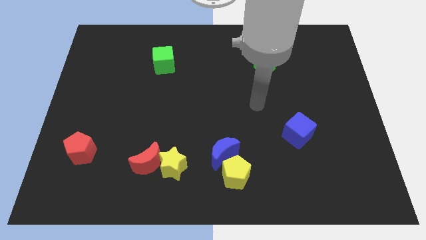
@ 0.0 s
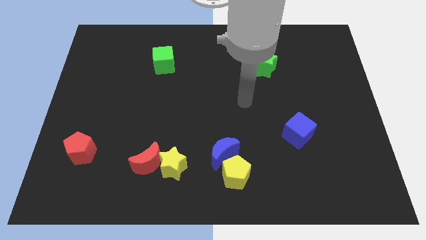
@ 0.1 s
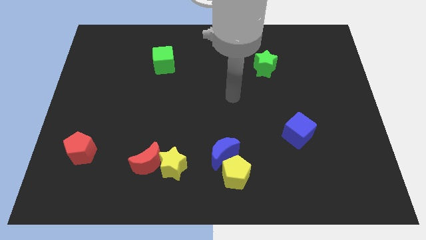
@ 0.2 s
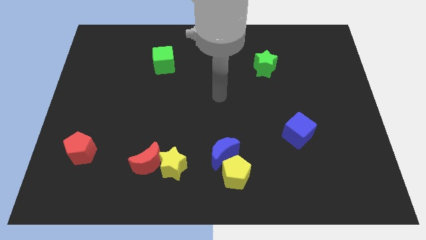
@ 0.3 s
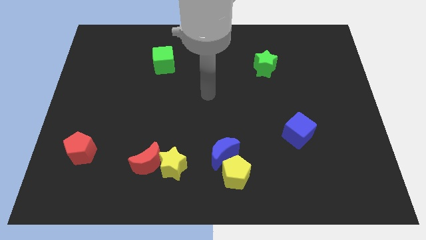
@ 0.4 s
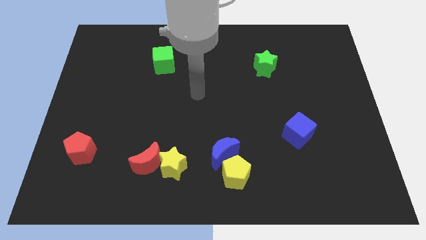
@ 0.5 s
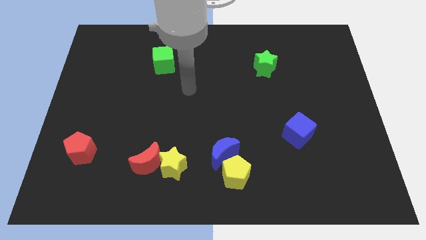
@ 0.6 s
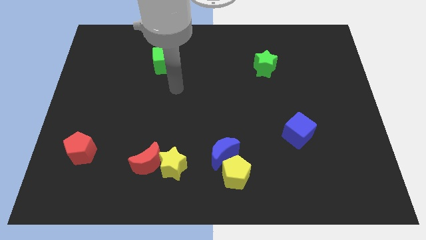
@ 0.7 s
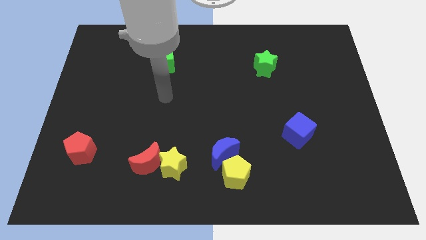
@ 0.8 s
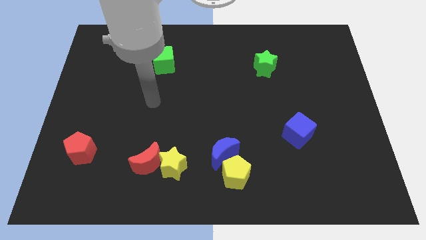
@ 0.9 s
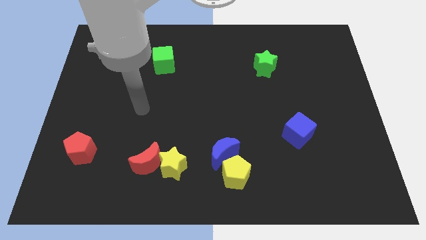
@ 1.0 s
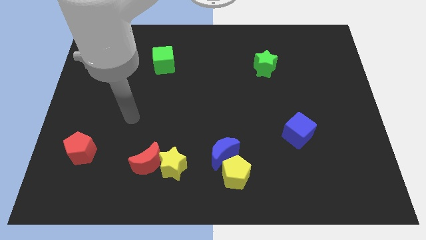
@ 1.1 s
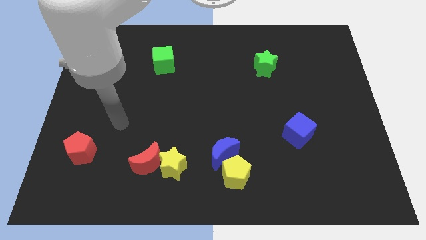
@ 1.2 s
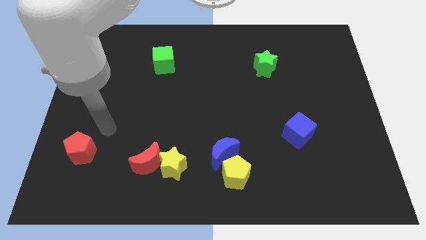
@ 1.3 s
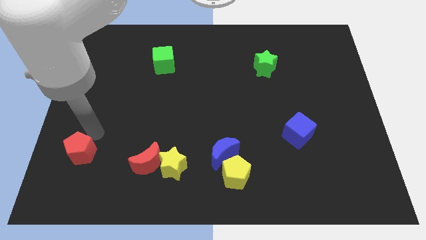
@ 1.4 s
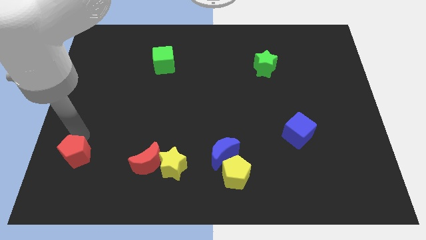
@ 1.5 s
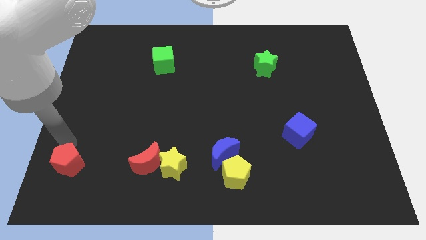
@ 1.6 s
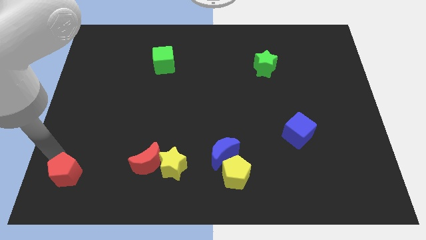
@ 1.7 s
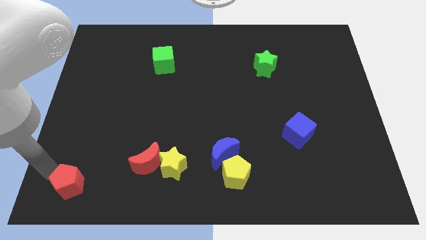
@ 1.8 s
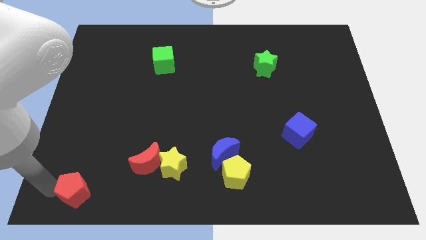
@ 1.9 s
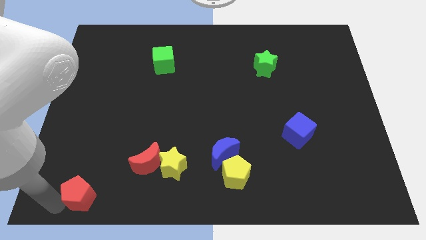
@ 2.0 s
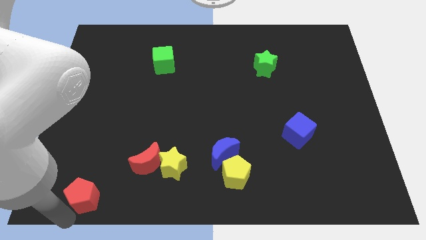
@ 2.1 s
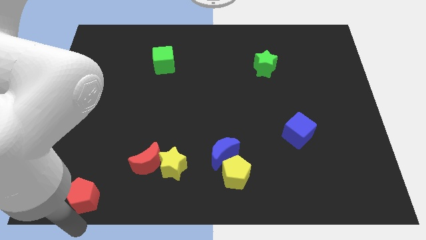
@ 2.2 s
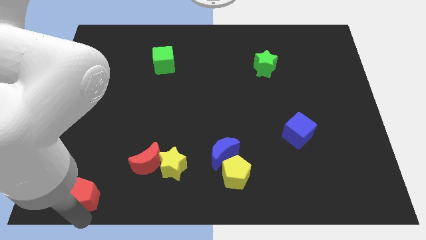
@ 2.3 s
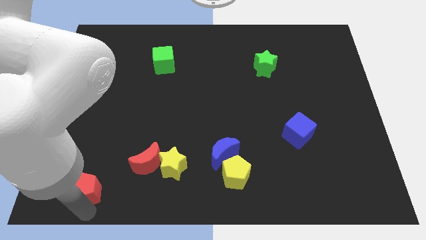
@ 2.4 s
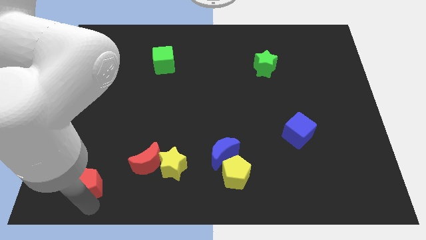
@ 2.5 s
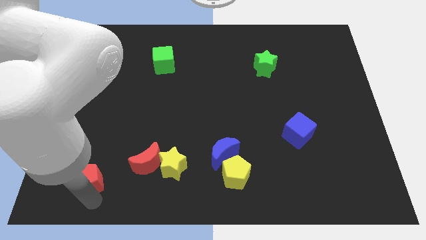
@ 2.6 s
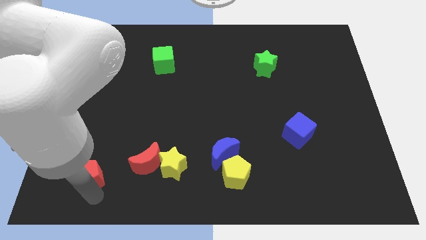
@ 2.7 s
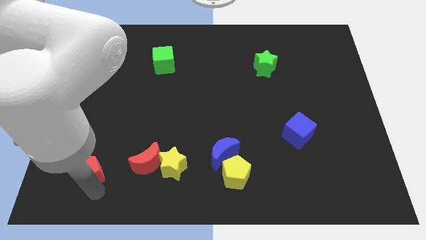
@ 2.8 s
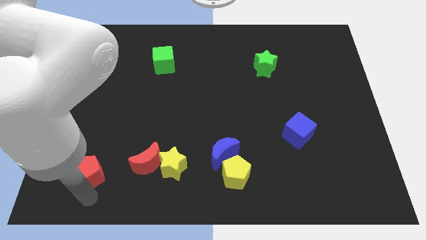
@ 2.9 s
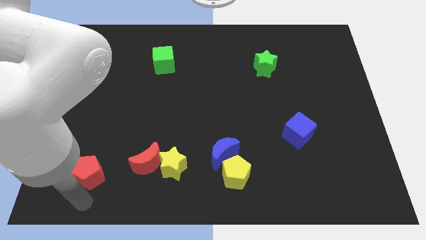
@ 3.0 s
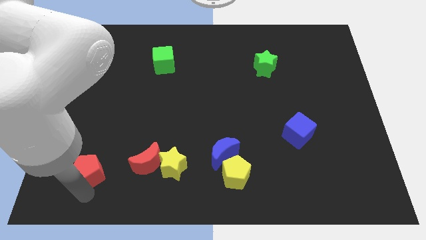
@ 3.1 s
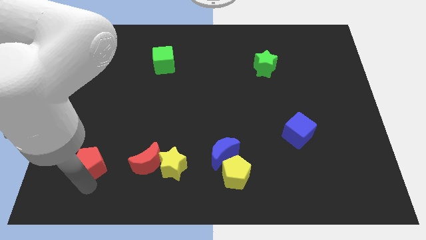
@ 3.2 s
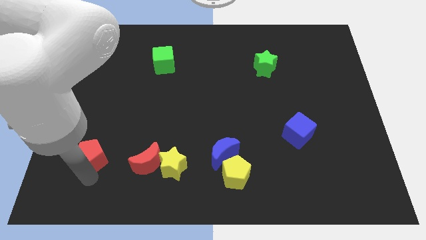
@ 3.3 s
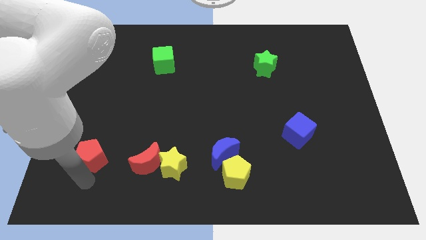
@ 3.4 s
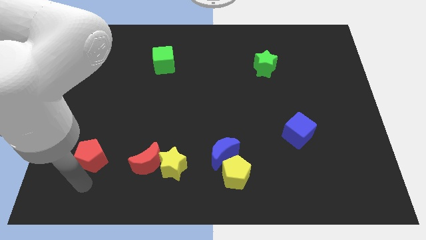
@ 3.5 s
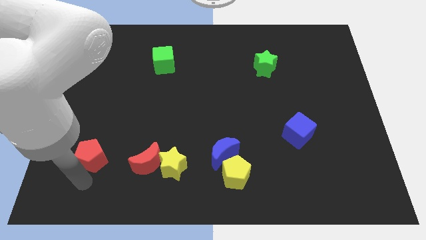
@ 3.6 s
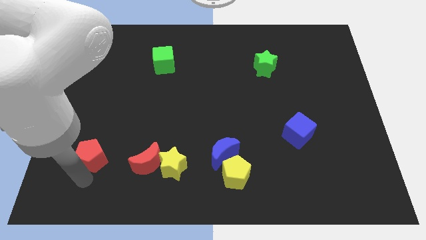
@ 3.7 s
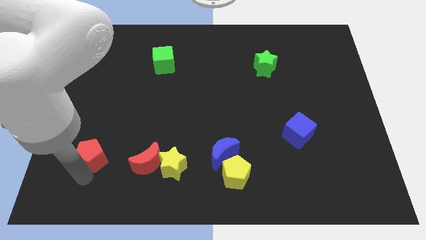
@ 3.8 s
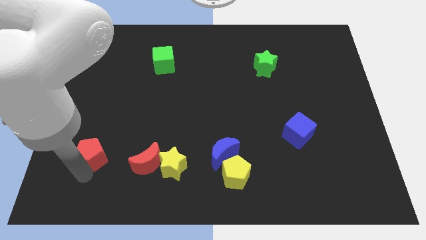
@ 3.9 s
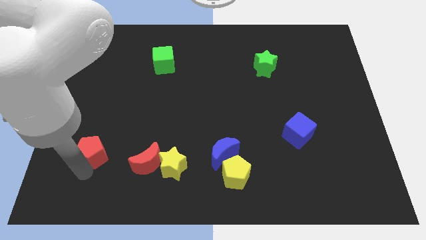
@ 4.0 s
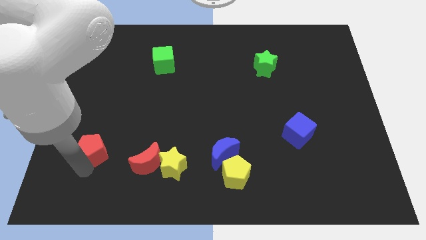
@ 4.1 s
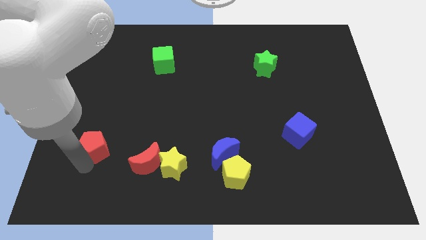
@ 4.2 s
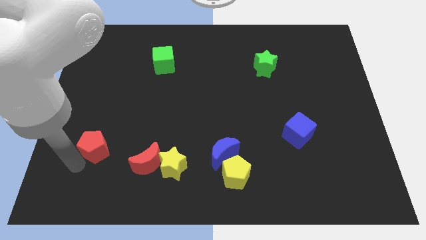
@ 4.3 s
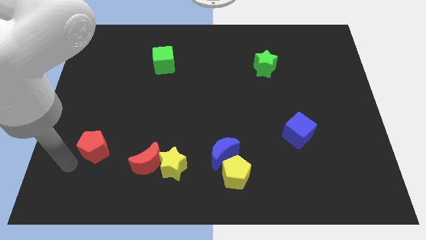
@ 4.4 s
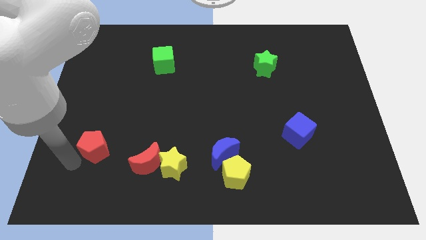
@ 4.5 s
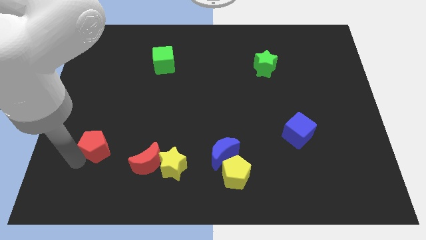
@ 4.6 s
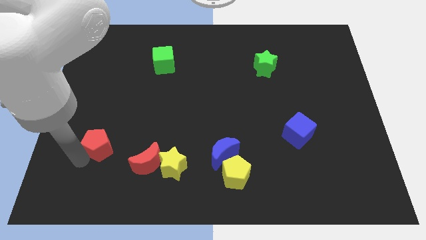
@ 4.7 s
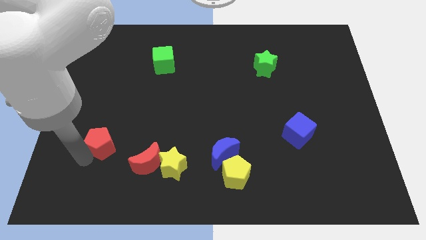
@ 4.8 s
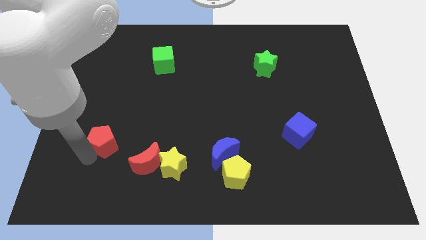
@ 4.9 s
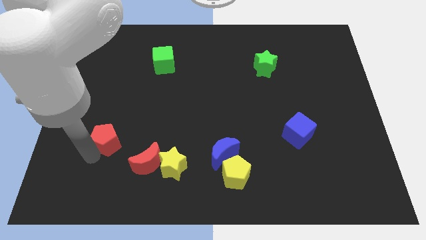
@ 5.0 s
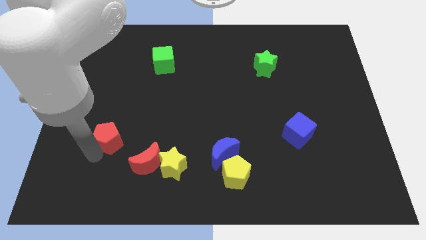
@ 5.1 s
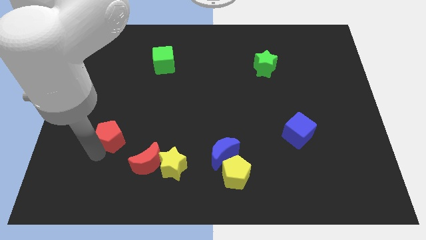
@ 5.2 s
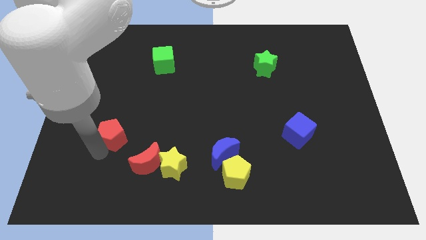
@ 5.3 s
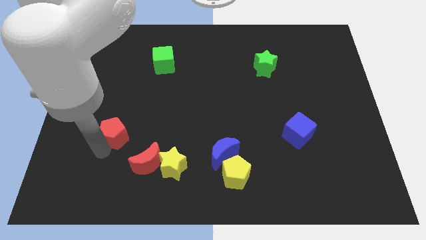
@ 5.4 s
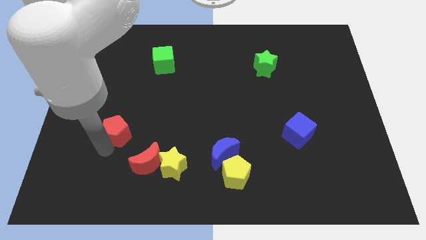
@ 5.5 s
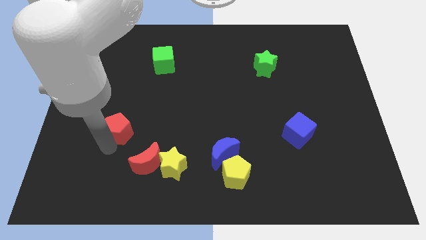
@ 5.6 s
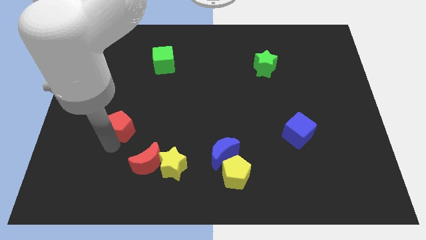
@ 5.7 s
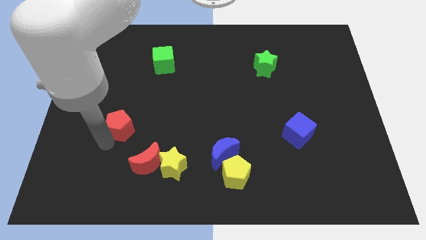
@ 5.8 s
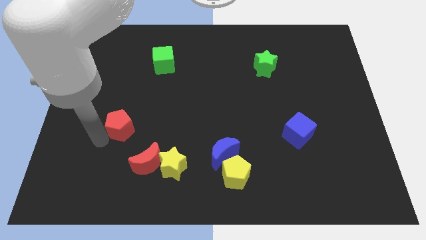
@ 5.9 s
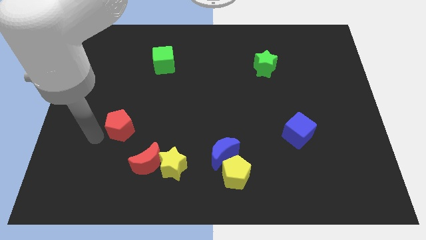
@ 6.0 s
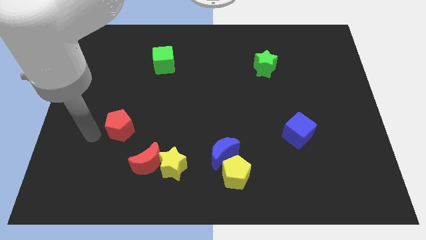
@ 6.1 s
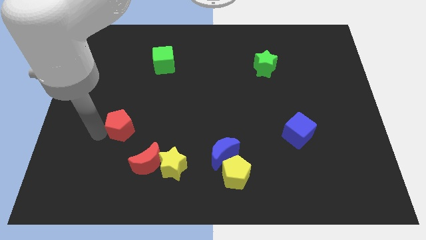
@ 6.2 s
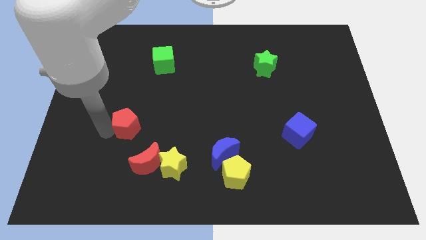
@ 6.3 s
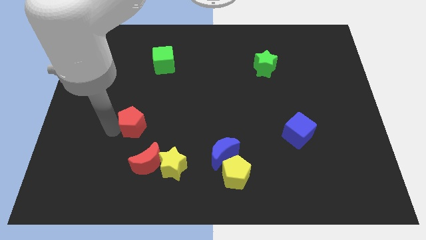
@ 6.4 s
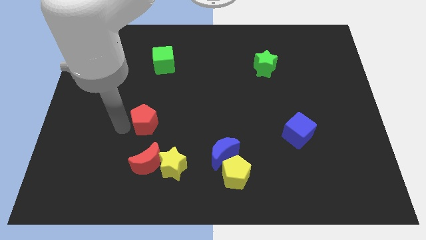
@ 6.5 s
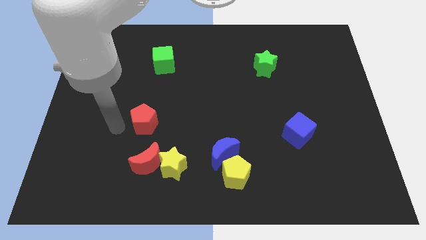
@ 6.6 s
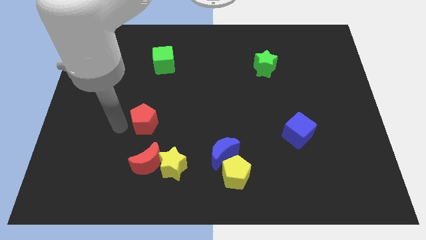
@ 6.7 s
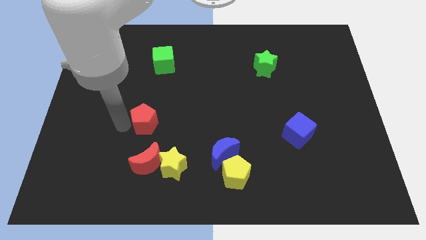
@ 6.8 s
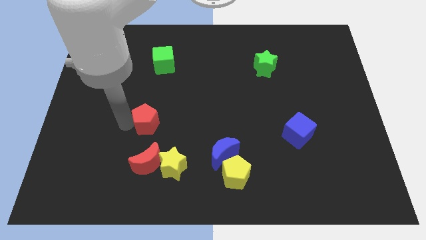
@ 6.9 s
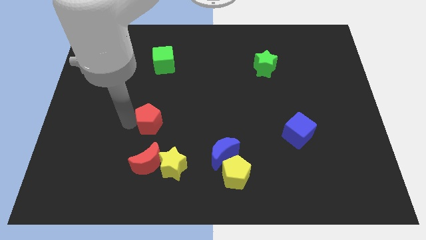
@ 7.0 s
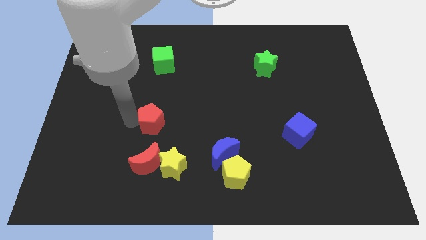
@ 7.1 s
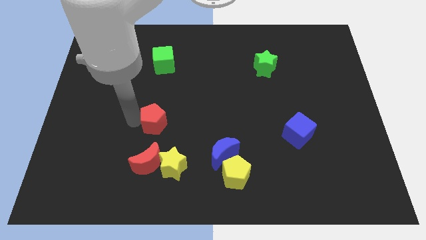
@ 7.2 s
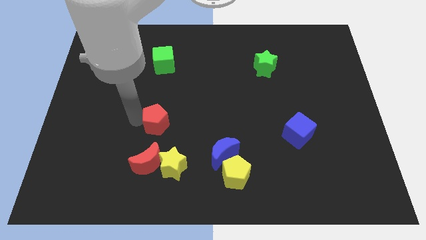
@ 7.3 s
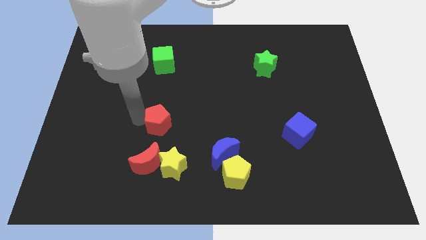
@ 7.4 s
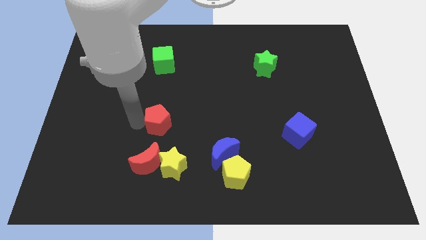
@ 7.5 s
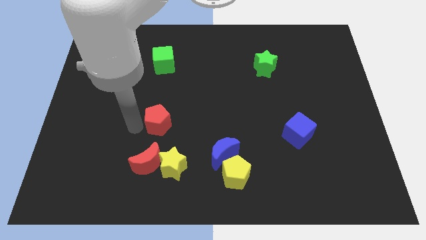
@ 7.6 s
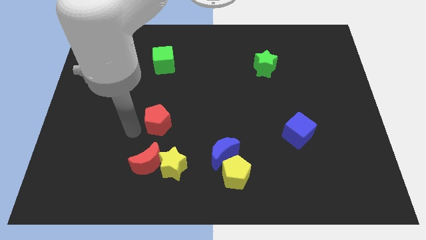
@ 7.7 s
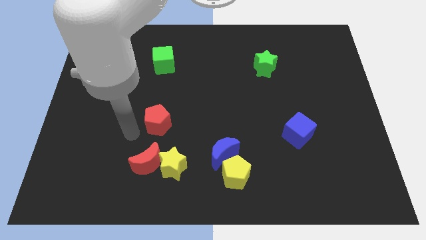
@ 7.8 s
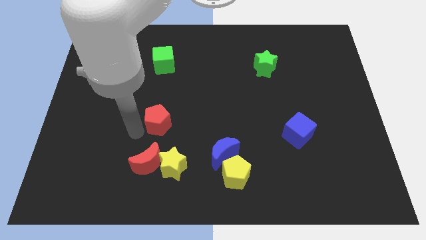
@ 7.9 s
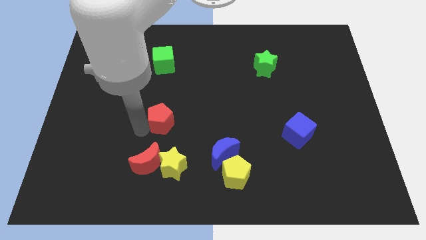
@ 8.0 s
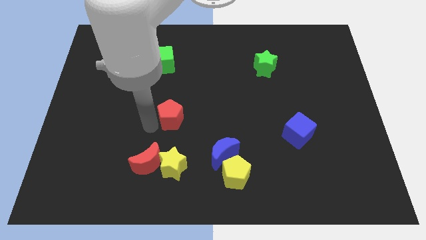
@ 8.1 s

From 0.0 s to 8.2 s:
move the red pentagon to the center

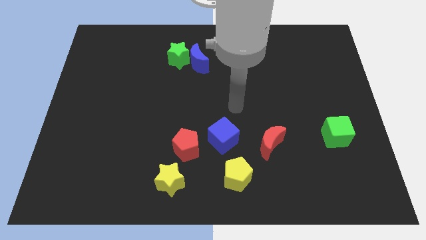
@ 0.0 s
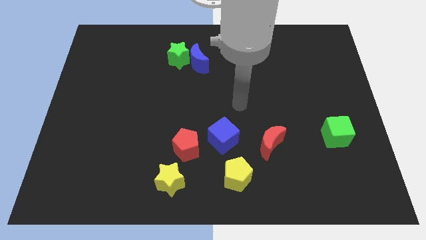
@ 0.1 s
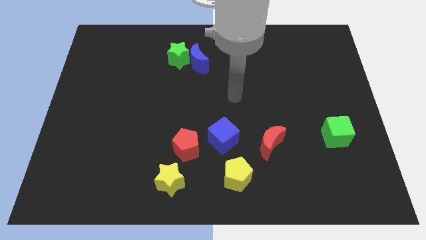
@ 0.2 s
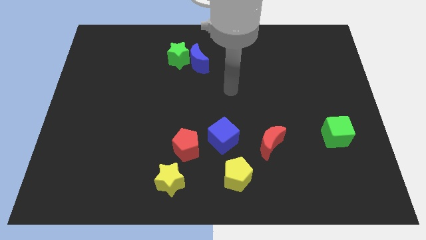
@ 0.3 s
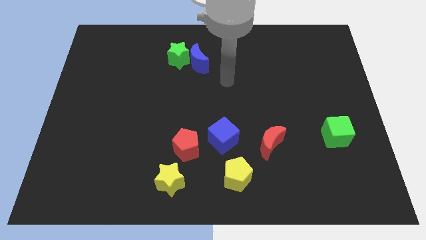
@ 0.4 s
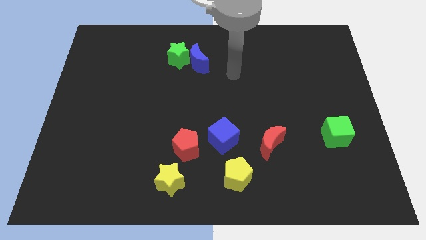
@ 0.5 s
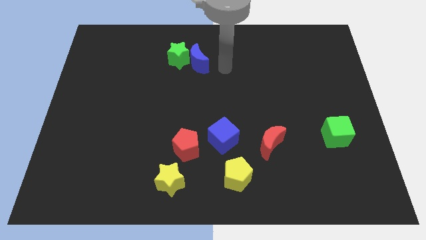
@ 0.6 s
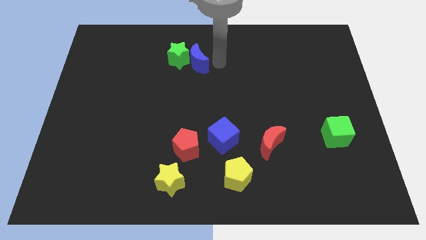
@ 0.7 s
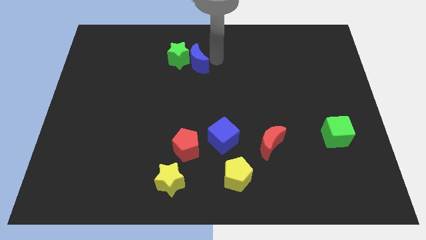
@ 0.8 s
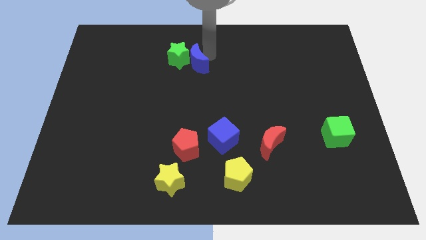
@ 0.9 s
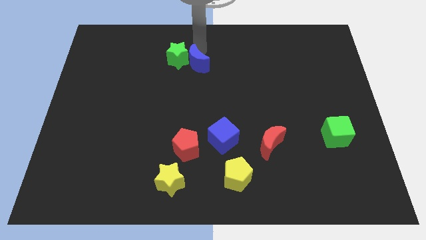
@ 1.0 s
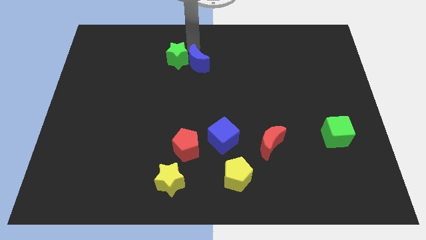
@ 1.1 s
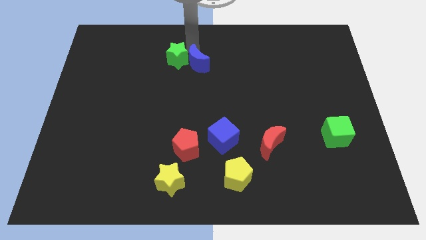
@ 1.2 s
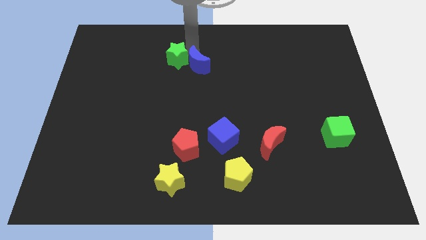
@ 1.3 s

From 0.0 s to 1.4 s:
move the blue moon to the center
